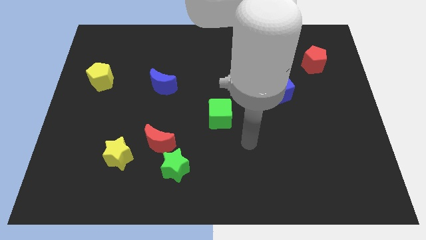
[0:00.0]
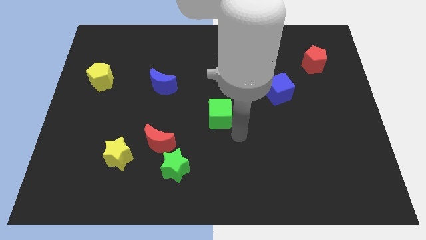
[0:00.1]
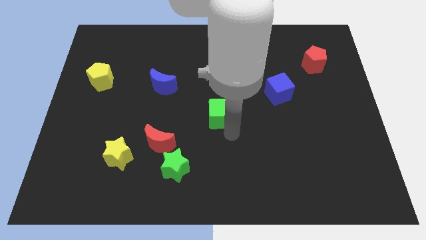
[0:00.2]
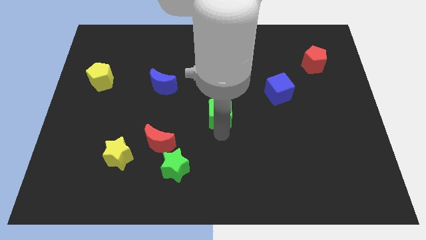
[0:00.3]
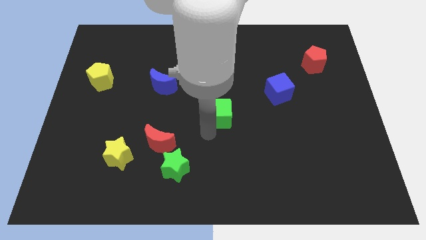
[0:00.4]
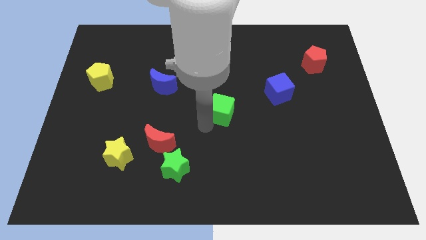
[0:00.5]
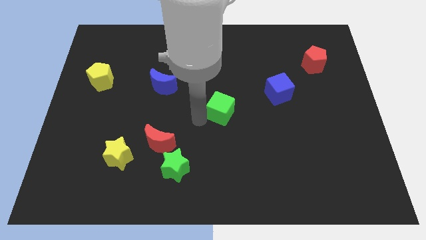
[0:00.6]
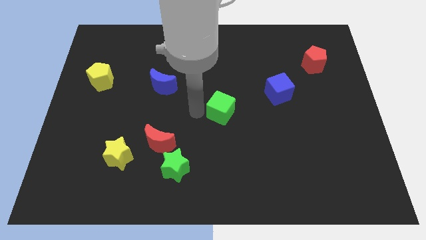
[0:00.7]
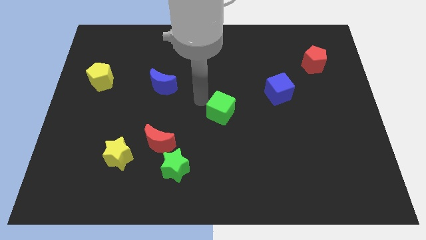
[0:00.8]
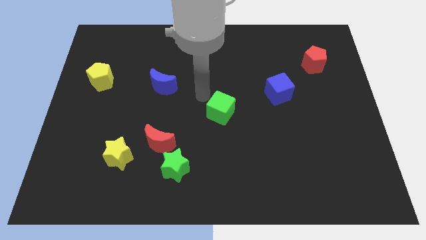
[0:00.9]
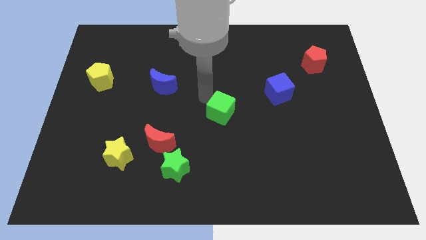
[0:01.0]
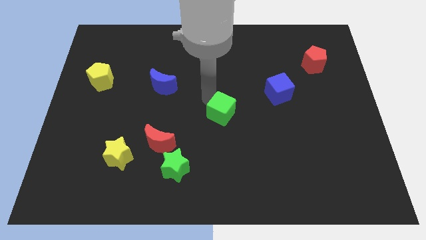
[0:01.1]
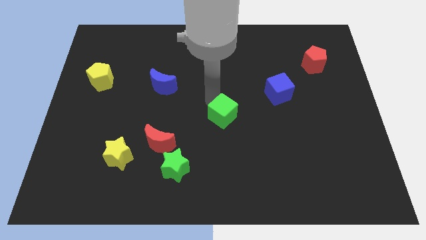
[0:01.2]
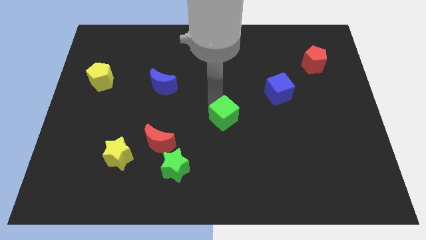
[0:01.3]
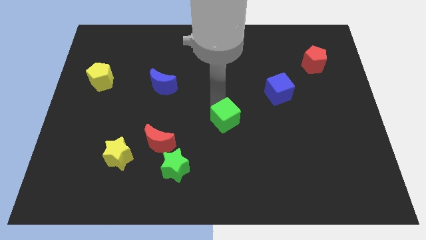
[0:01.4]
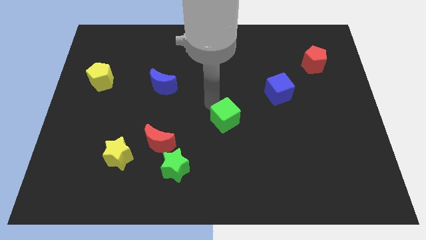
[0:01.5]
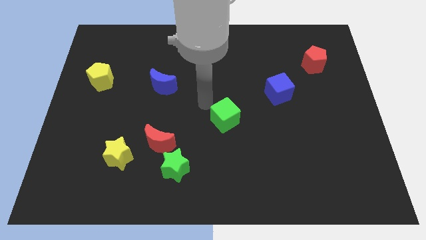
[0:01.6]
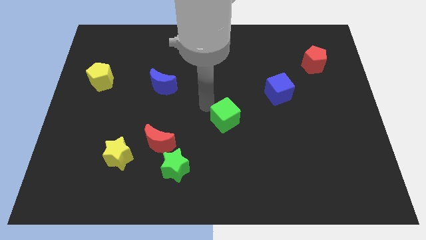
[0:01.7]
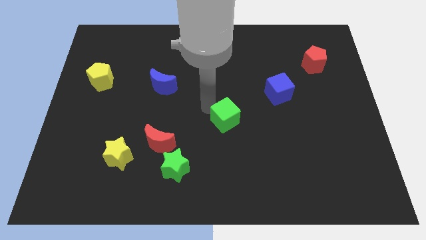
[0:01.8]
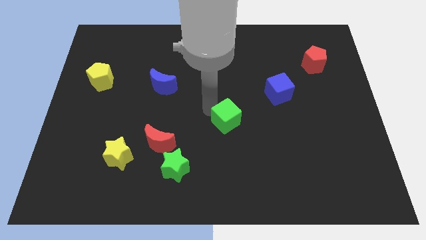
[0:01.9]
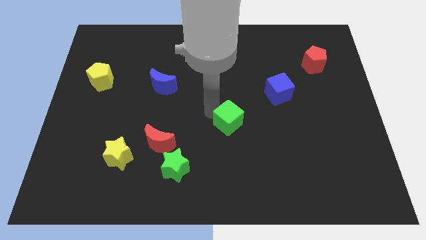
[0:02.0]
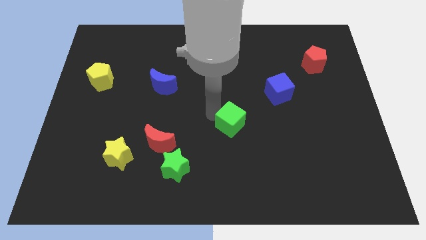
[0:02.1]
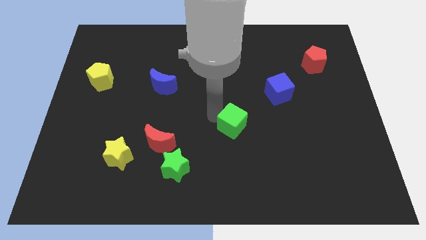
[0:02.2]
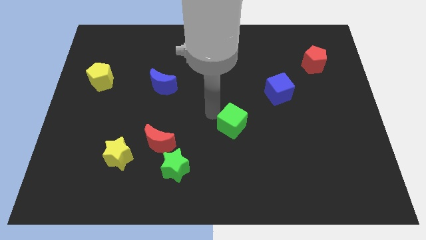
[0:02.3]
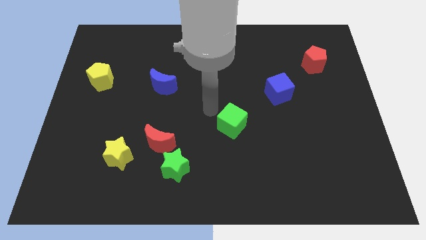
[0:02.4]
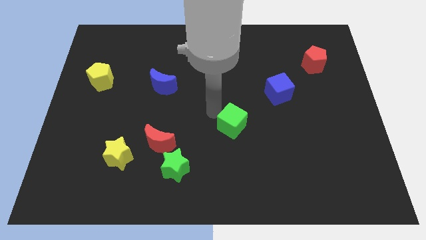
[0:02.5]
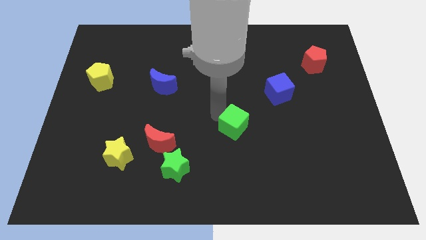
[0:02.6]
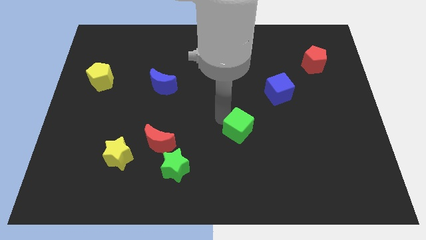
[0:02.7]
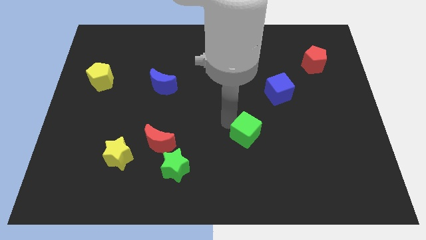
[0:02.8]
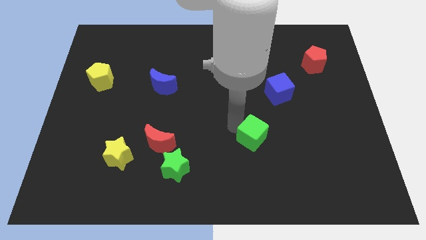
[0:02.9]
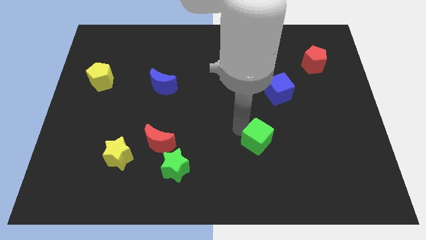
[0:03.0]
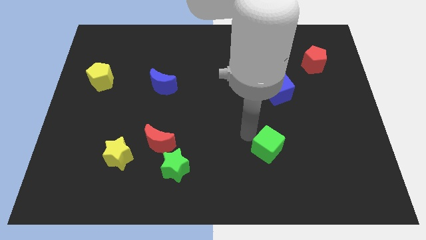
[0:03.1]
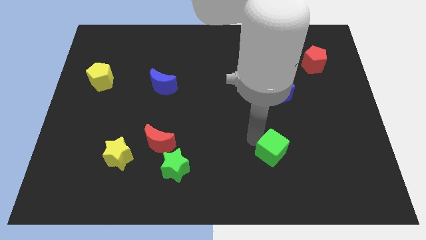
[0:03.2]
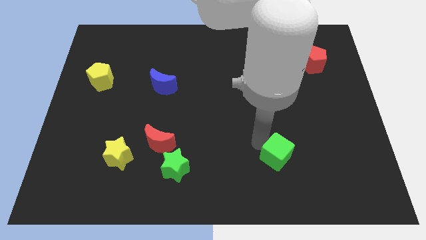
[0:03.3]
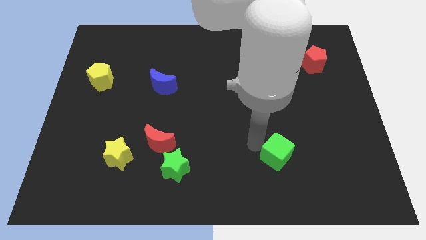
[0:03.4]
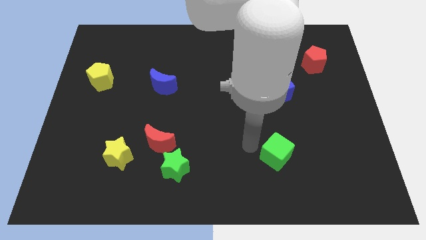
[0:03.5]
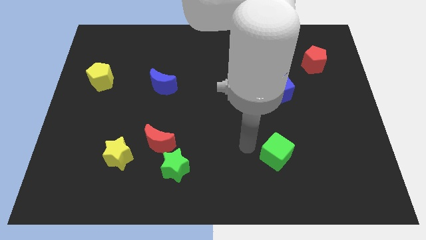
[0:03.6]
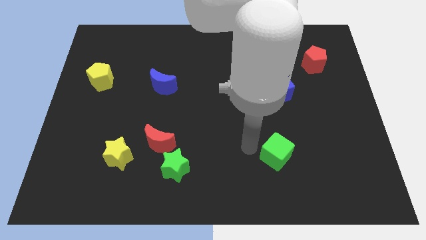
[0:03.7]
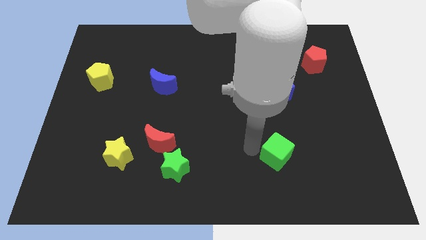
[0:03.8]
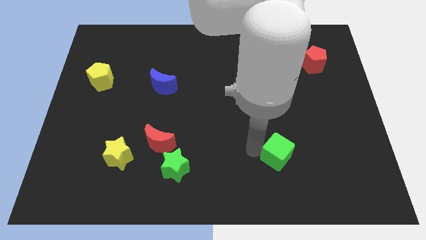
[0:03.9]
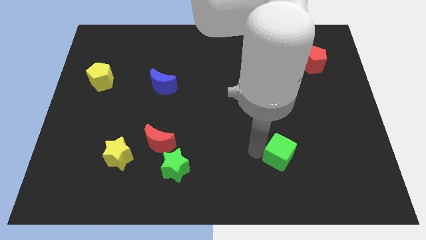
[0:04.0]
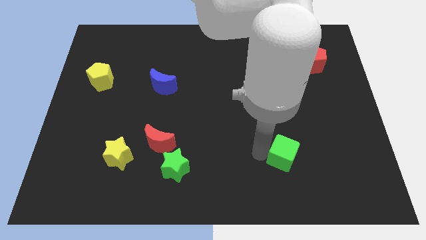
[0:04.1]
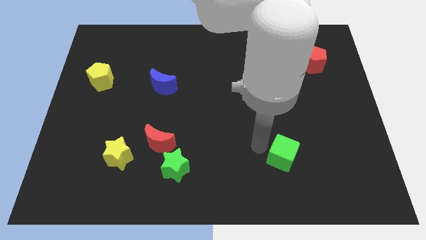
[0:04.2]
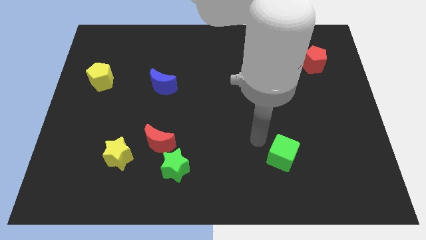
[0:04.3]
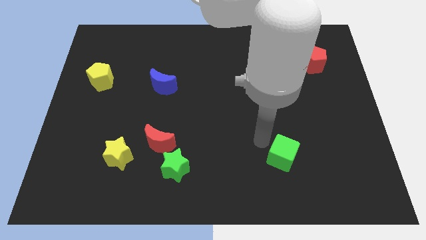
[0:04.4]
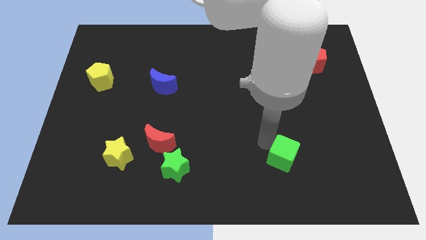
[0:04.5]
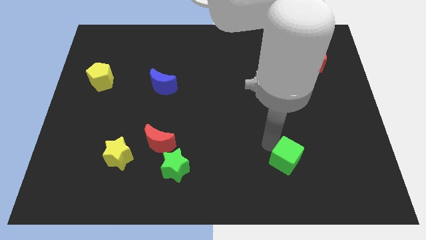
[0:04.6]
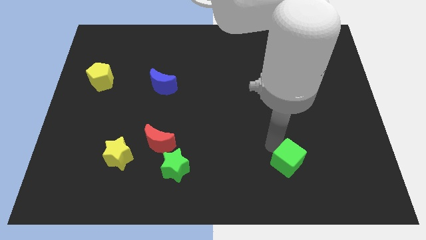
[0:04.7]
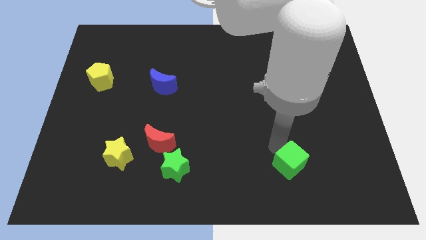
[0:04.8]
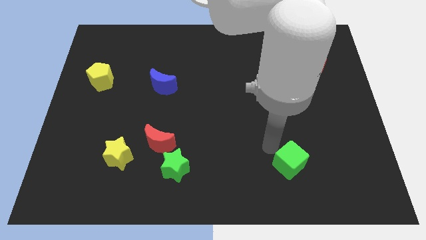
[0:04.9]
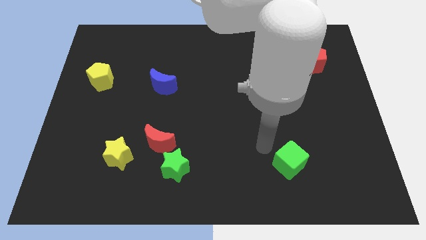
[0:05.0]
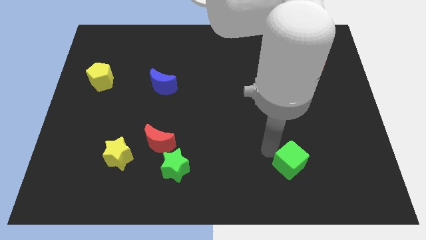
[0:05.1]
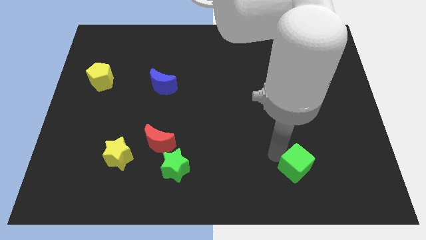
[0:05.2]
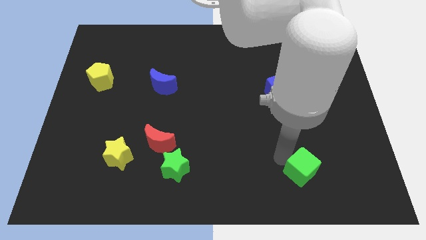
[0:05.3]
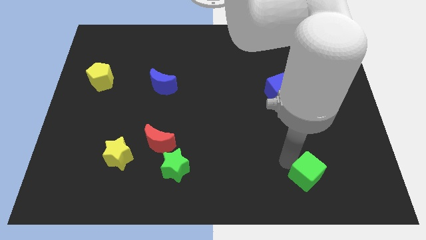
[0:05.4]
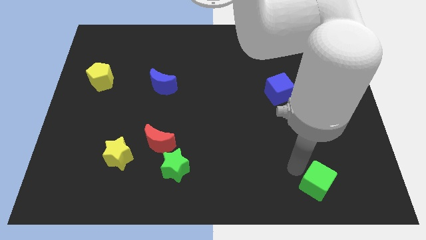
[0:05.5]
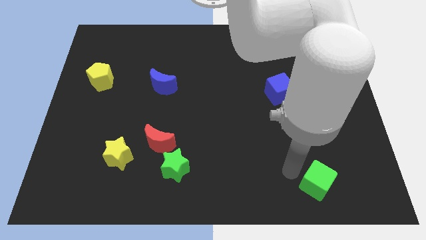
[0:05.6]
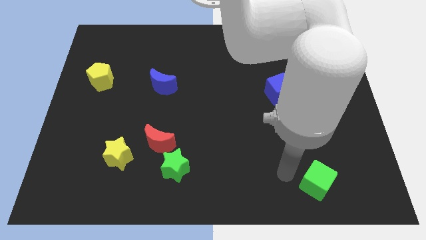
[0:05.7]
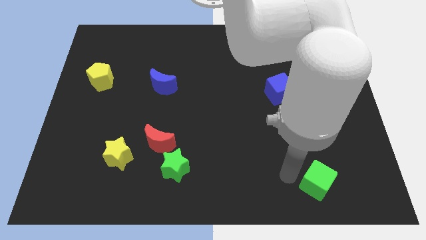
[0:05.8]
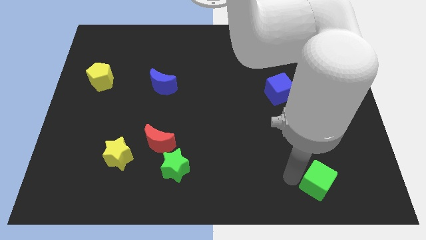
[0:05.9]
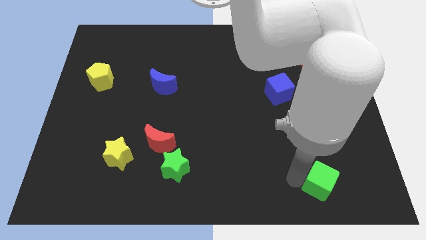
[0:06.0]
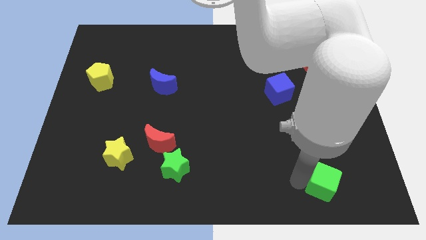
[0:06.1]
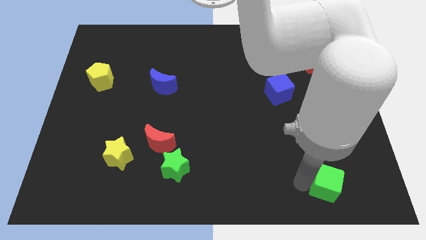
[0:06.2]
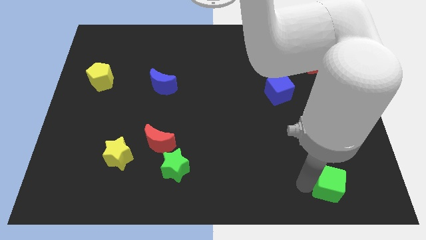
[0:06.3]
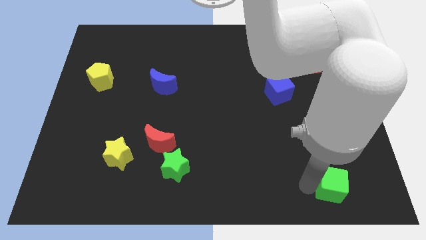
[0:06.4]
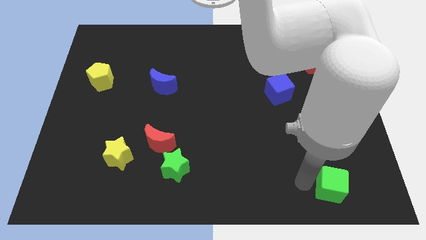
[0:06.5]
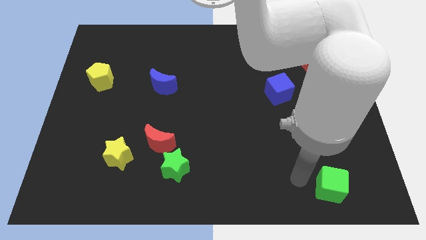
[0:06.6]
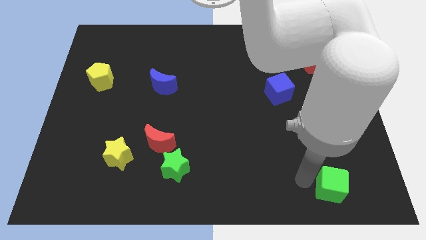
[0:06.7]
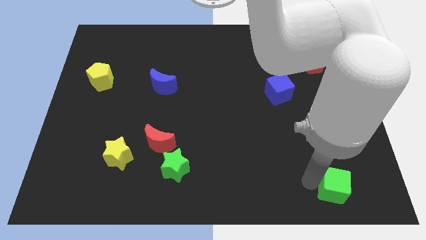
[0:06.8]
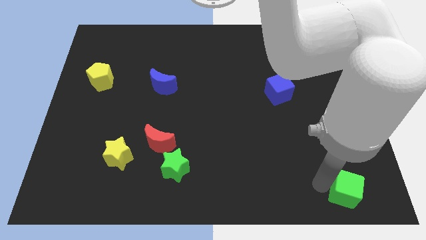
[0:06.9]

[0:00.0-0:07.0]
slide the green cube to the bottom right
